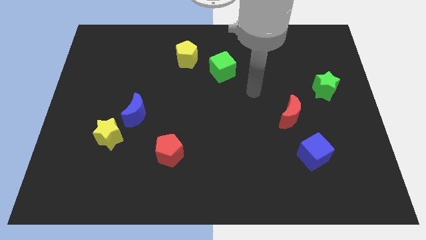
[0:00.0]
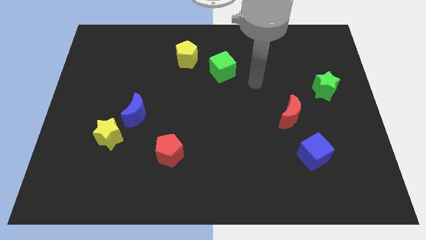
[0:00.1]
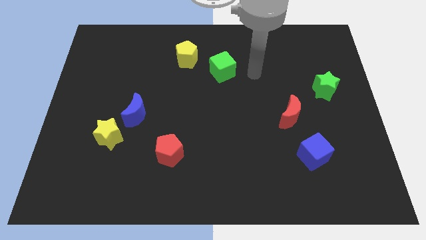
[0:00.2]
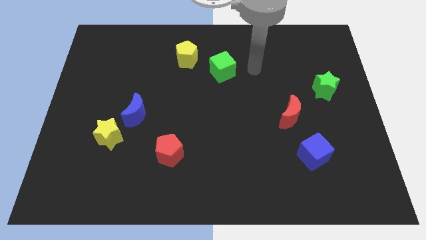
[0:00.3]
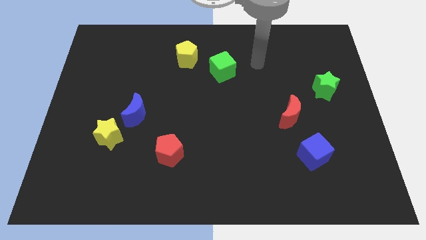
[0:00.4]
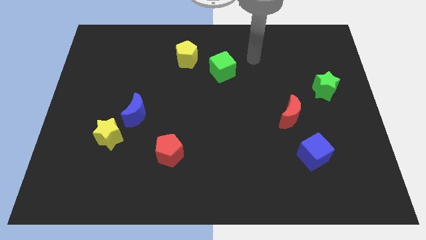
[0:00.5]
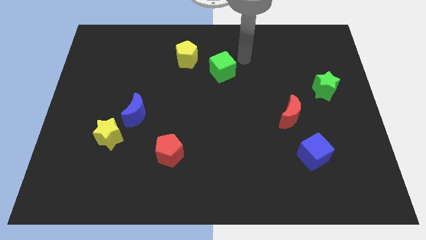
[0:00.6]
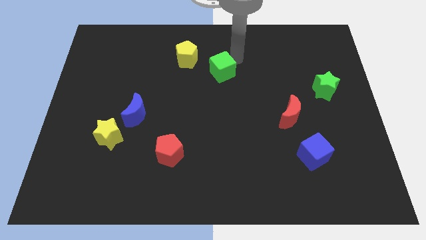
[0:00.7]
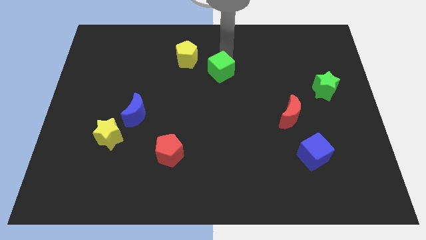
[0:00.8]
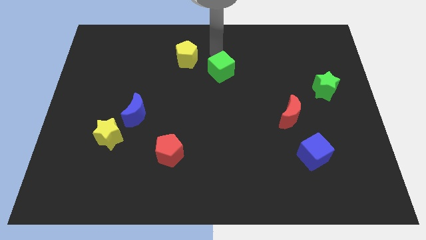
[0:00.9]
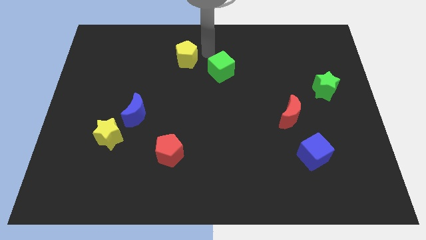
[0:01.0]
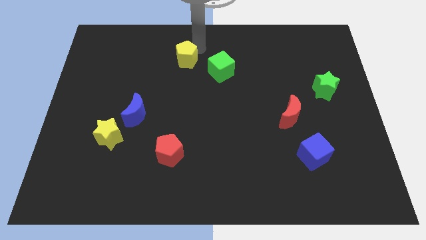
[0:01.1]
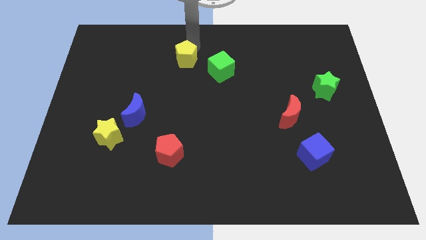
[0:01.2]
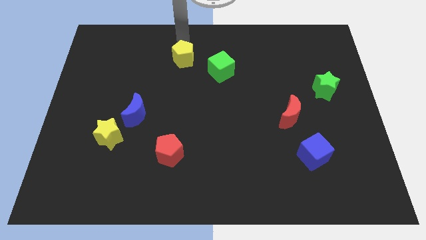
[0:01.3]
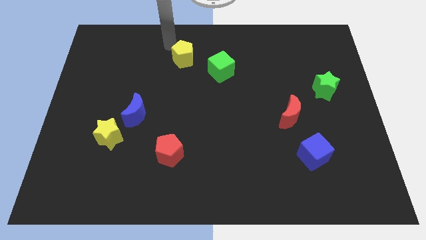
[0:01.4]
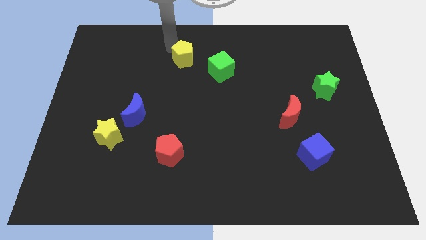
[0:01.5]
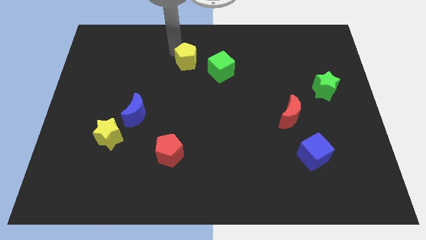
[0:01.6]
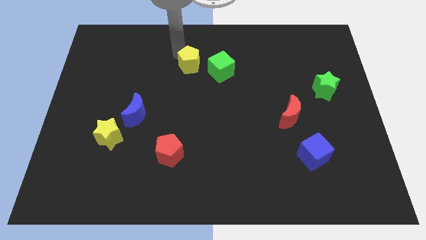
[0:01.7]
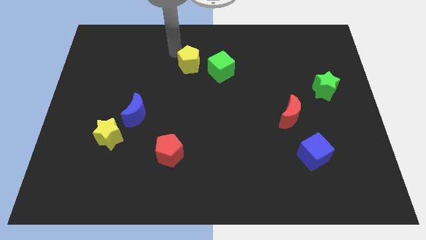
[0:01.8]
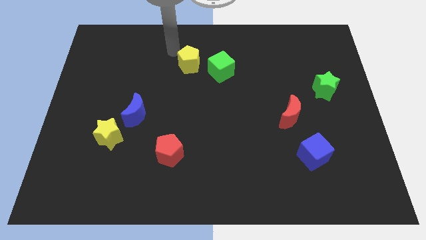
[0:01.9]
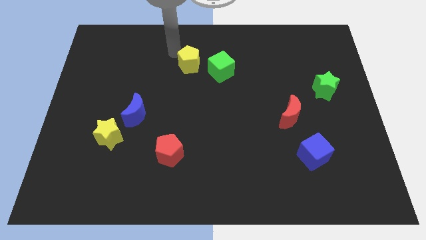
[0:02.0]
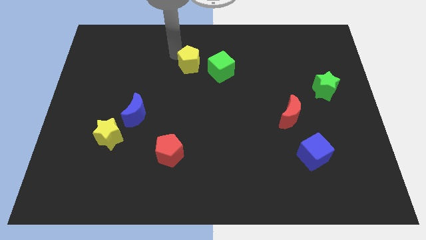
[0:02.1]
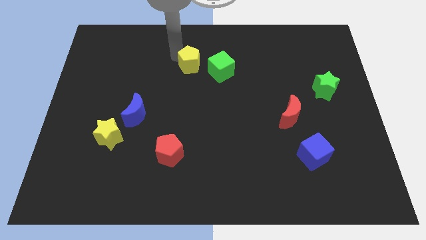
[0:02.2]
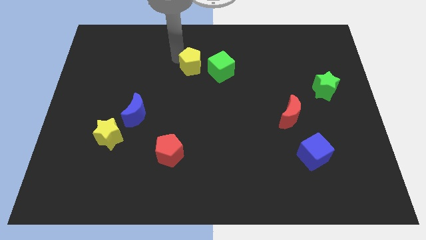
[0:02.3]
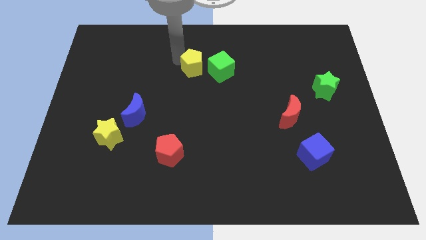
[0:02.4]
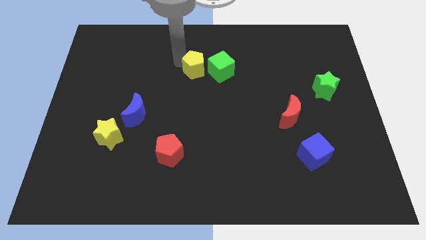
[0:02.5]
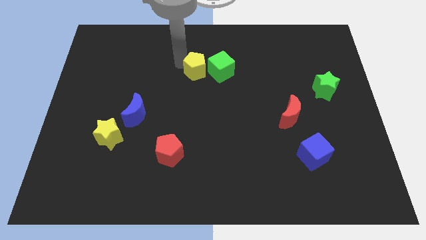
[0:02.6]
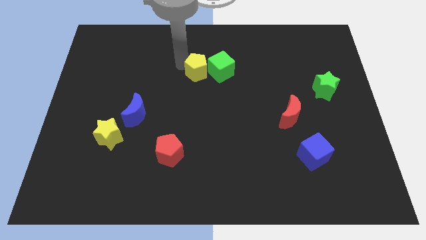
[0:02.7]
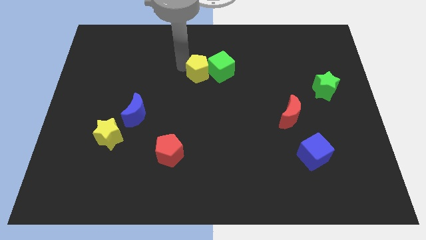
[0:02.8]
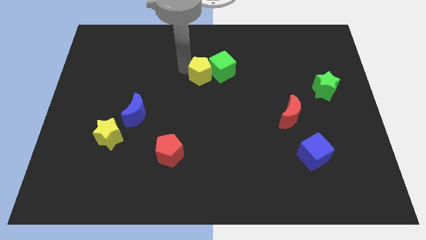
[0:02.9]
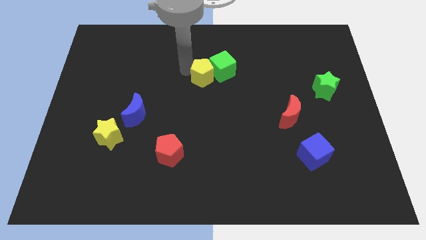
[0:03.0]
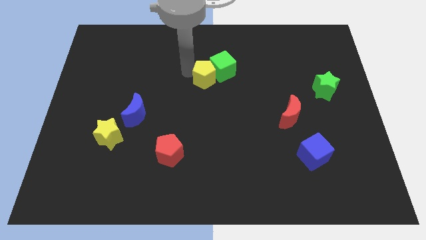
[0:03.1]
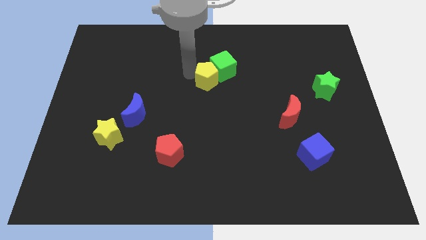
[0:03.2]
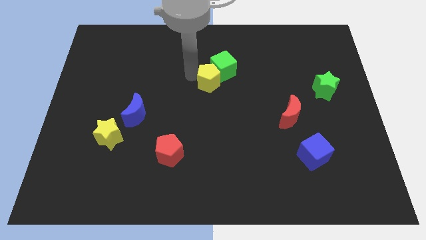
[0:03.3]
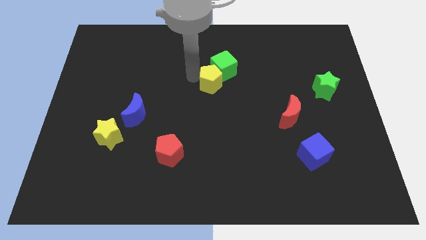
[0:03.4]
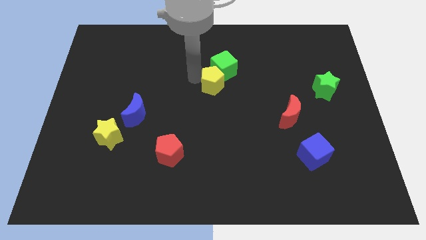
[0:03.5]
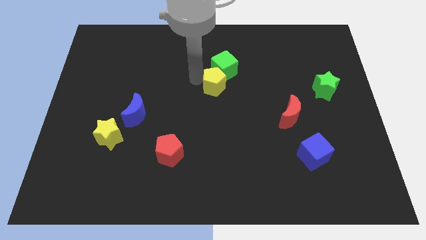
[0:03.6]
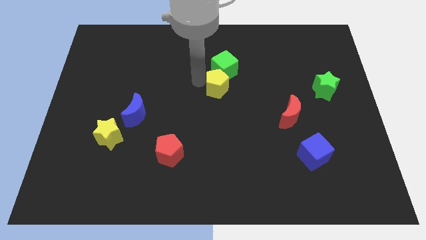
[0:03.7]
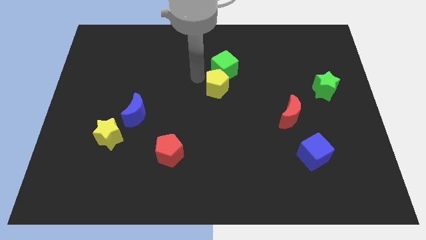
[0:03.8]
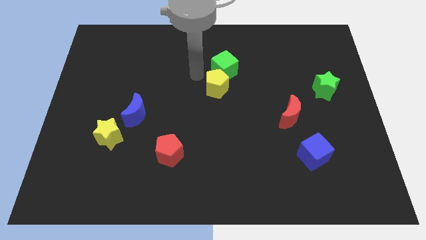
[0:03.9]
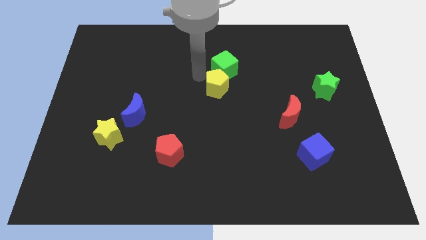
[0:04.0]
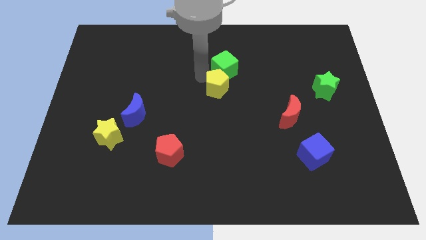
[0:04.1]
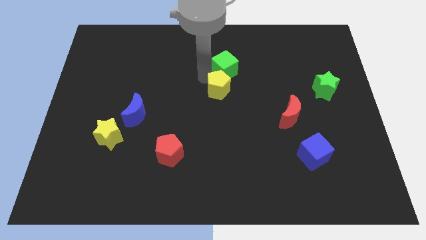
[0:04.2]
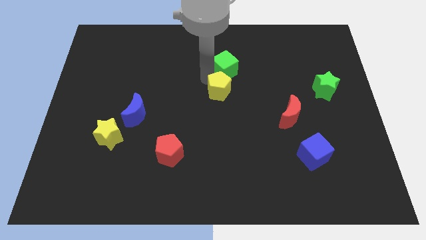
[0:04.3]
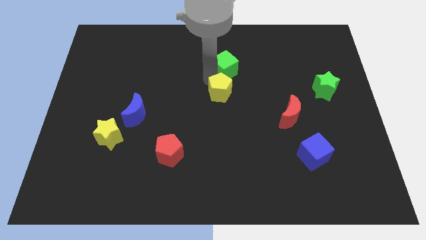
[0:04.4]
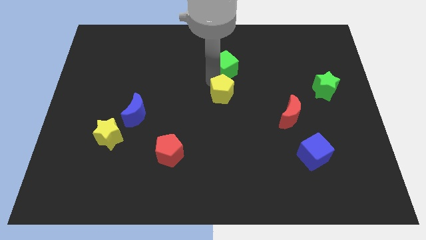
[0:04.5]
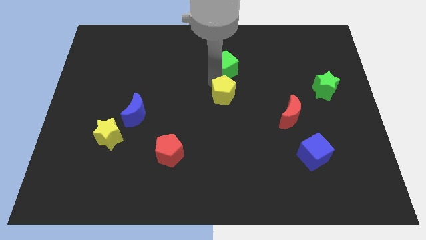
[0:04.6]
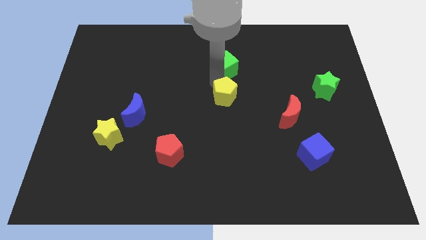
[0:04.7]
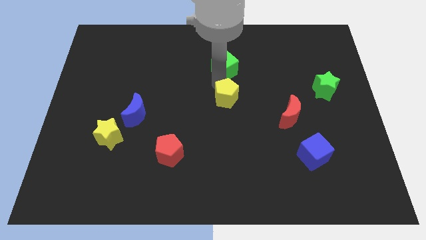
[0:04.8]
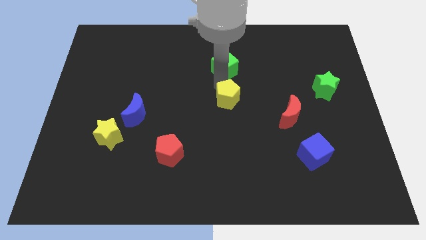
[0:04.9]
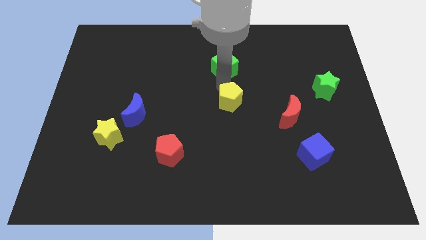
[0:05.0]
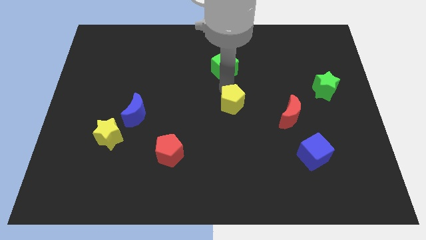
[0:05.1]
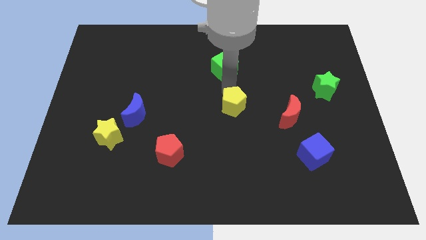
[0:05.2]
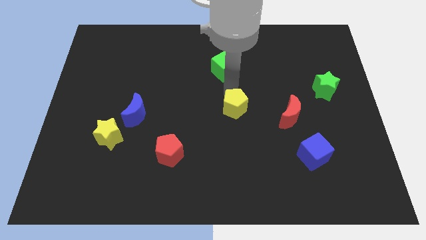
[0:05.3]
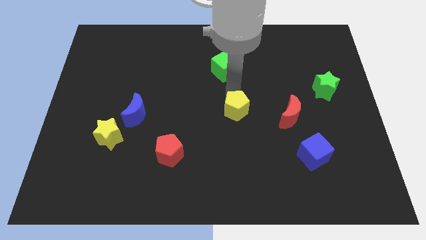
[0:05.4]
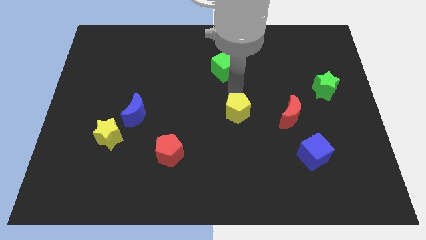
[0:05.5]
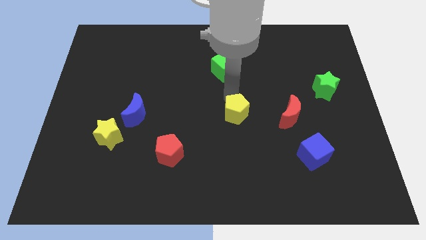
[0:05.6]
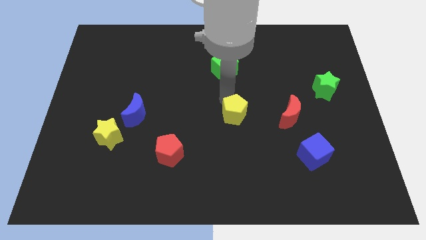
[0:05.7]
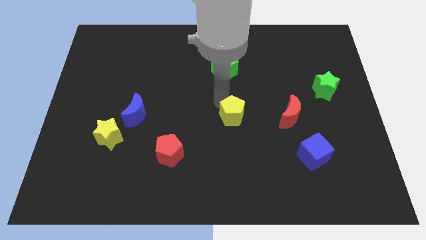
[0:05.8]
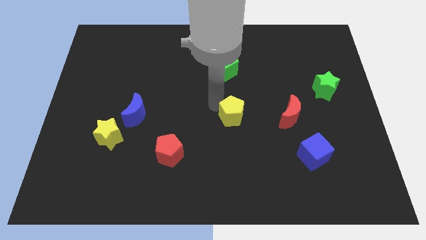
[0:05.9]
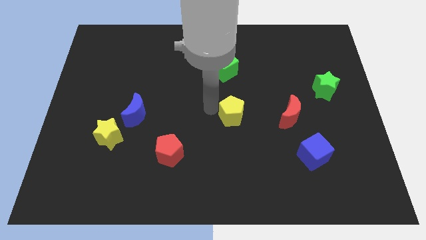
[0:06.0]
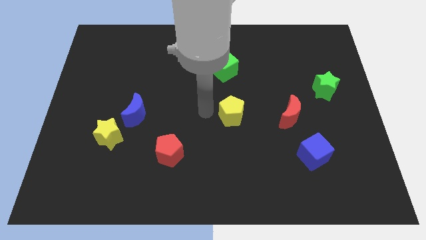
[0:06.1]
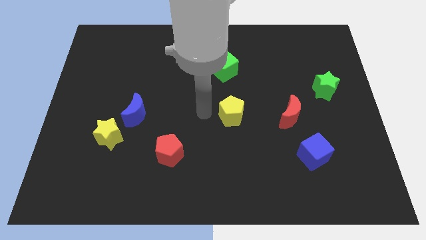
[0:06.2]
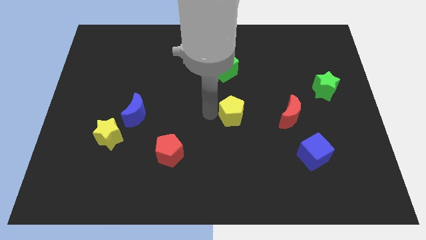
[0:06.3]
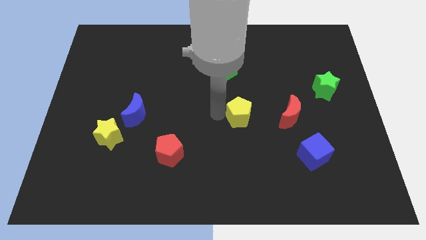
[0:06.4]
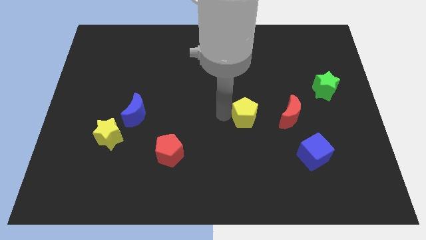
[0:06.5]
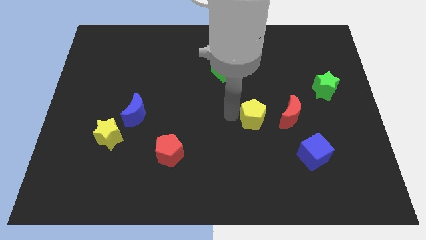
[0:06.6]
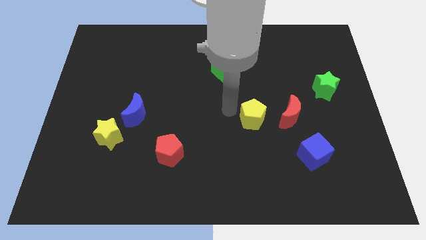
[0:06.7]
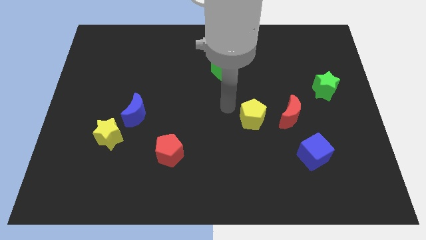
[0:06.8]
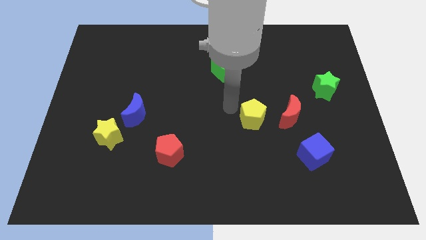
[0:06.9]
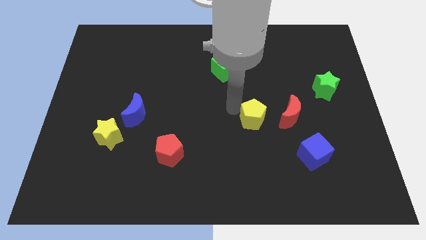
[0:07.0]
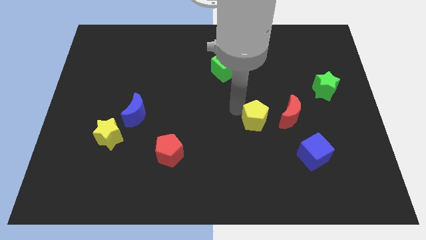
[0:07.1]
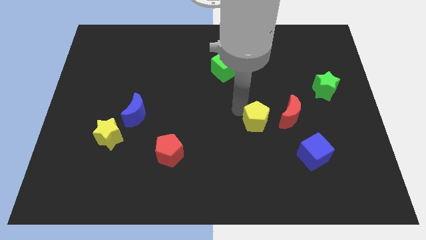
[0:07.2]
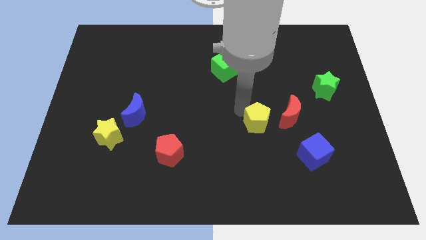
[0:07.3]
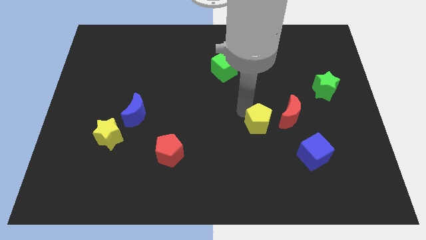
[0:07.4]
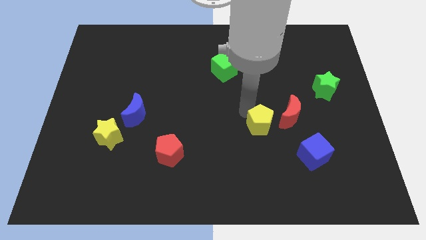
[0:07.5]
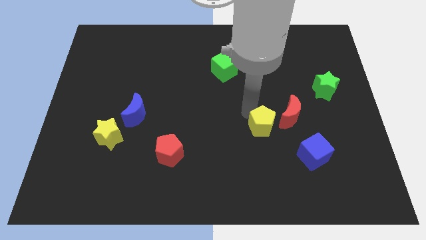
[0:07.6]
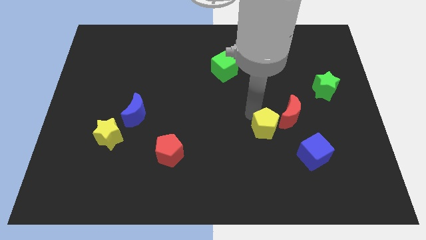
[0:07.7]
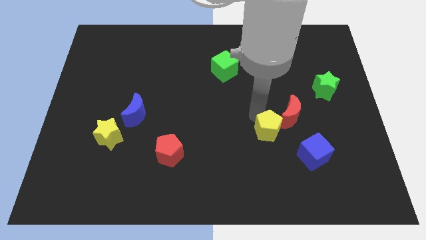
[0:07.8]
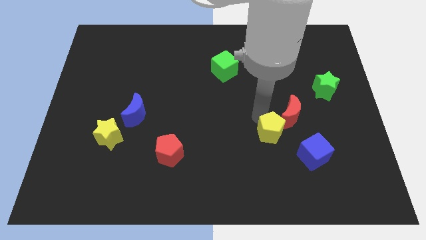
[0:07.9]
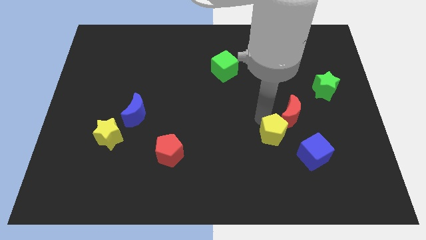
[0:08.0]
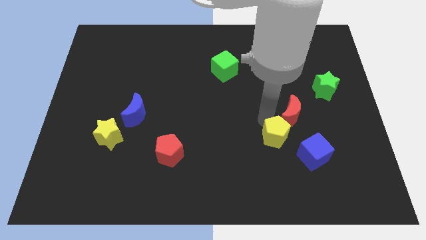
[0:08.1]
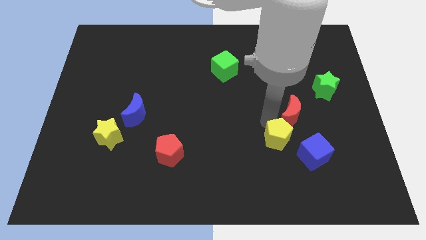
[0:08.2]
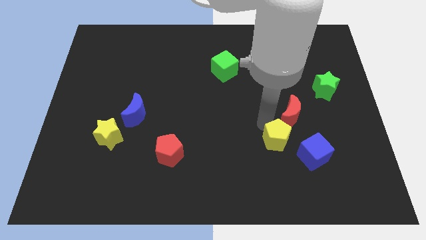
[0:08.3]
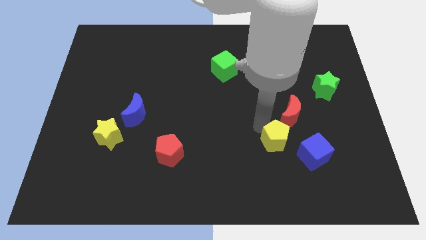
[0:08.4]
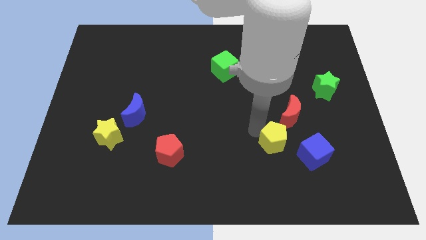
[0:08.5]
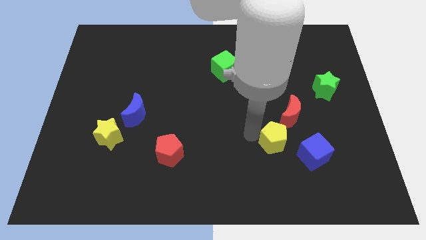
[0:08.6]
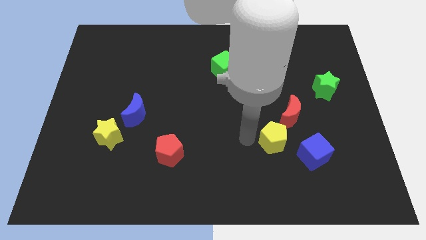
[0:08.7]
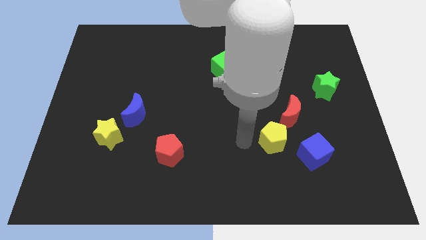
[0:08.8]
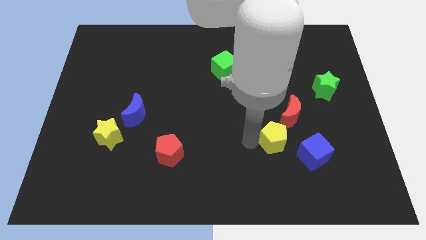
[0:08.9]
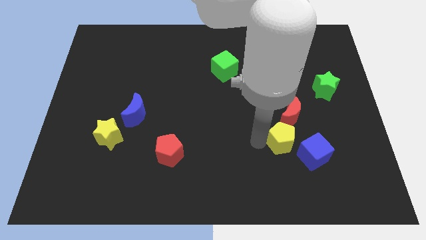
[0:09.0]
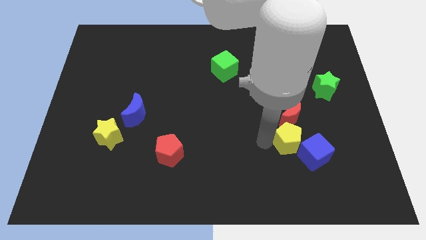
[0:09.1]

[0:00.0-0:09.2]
move the yellow pentagon close to the blue cube
